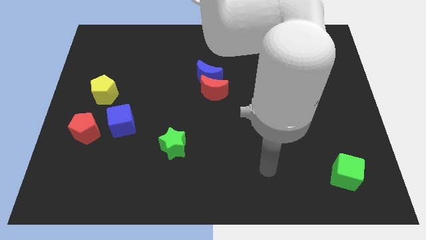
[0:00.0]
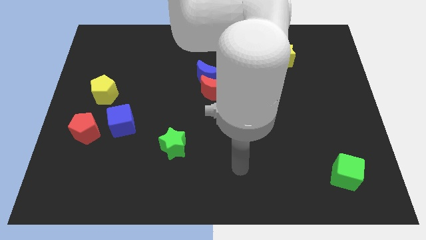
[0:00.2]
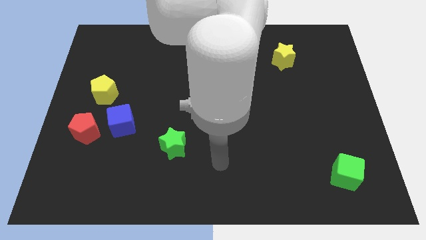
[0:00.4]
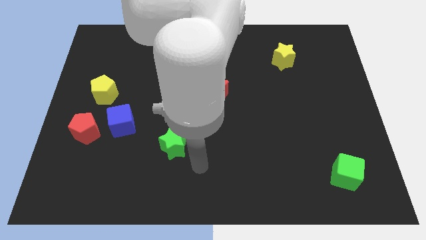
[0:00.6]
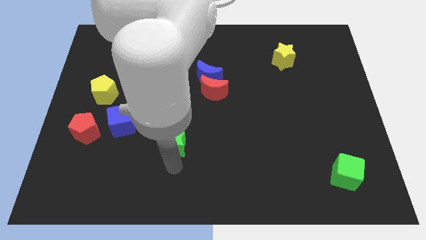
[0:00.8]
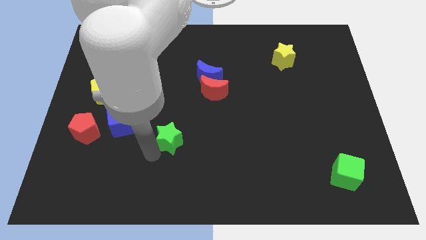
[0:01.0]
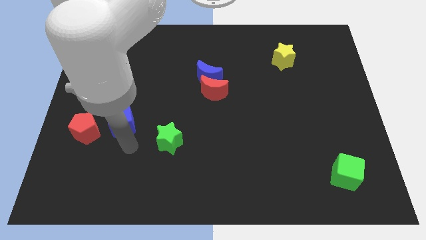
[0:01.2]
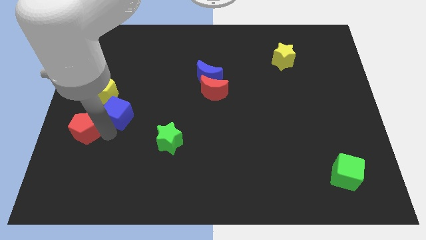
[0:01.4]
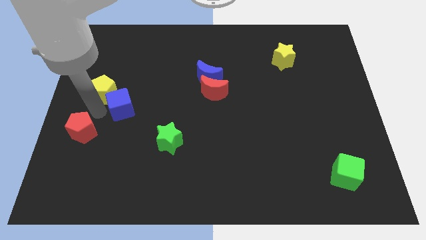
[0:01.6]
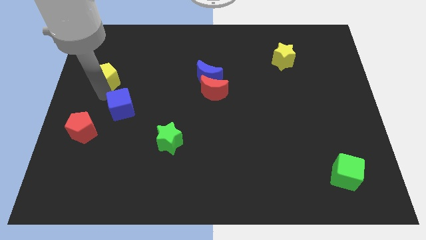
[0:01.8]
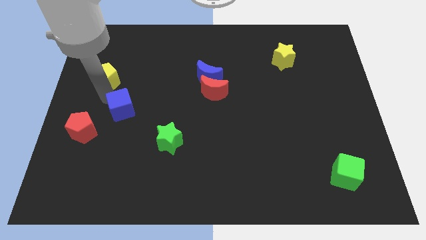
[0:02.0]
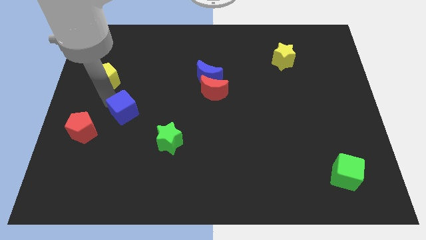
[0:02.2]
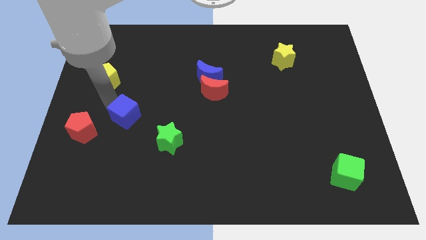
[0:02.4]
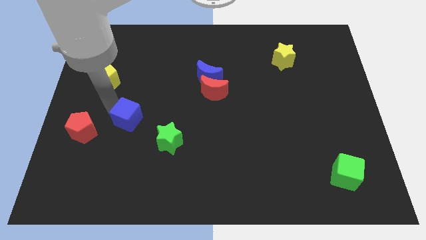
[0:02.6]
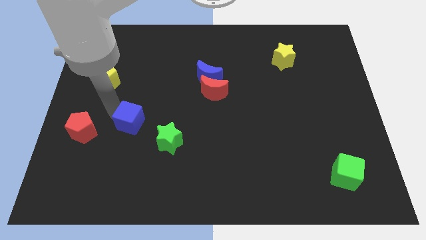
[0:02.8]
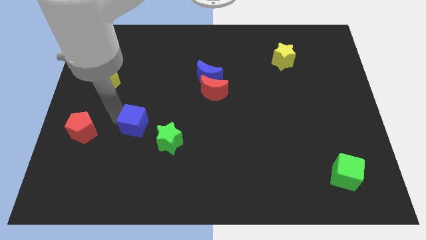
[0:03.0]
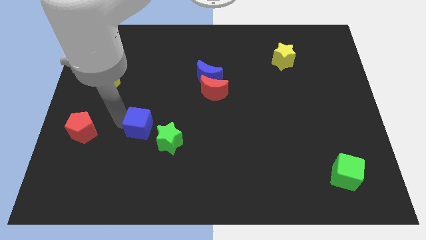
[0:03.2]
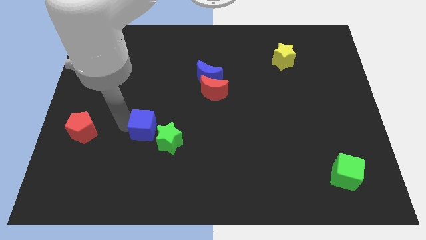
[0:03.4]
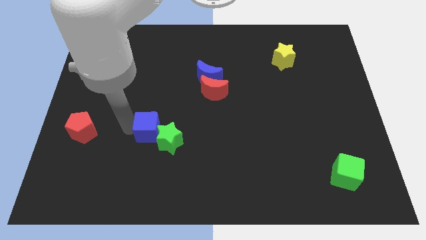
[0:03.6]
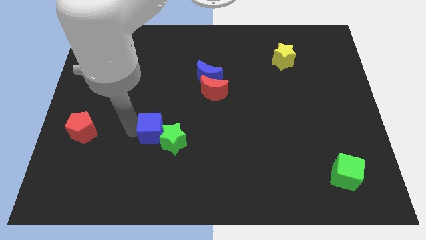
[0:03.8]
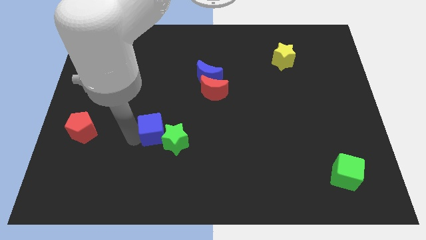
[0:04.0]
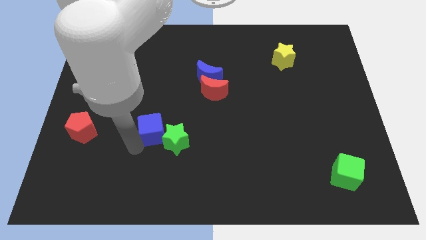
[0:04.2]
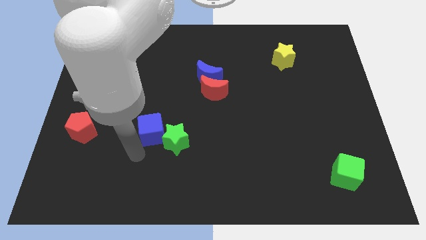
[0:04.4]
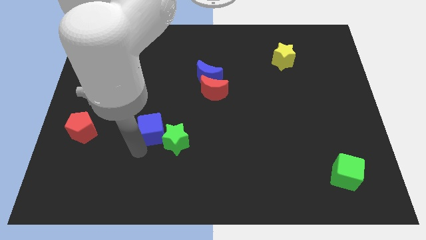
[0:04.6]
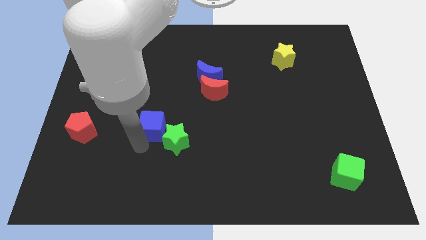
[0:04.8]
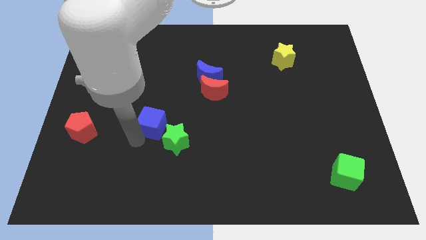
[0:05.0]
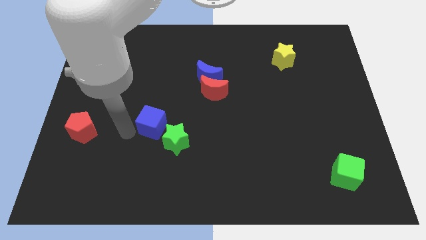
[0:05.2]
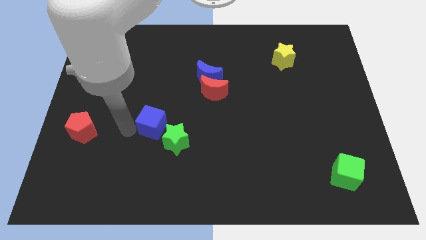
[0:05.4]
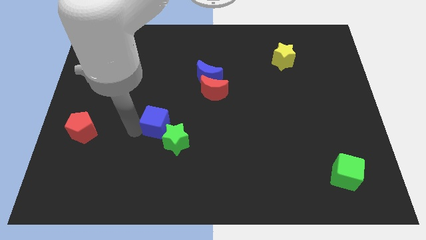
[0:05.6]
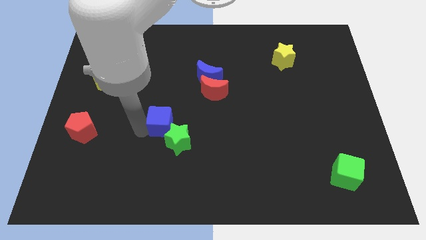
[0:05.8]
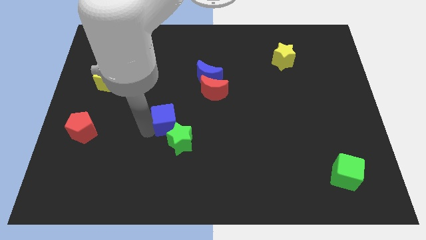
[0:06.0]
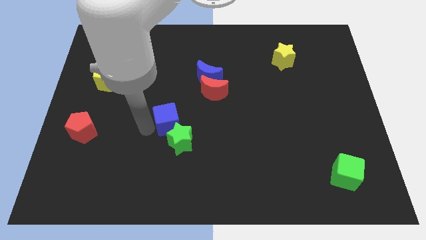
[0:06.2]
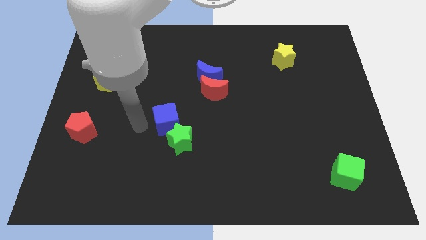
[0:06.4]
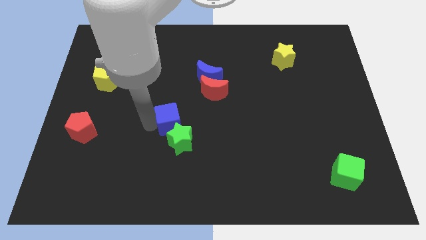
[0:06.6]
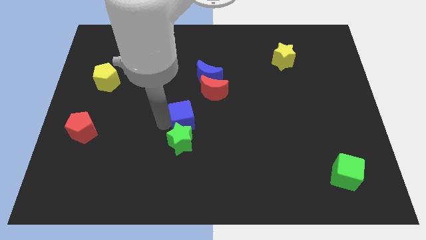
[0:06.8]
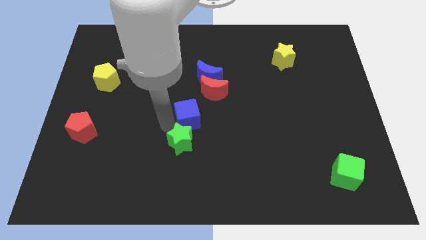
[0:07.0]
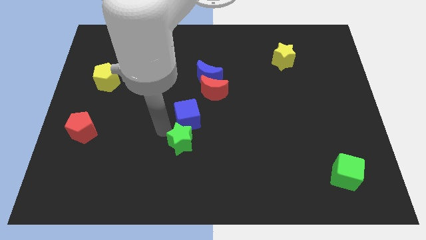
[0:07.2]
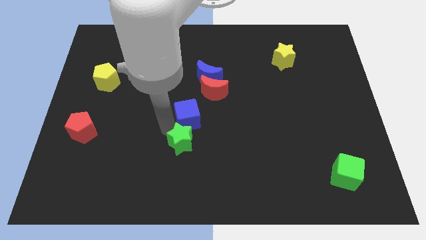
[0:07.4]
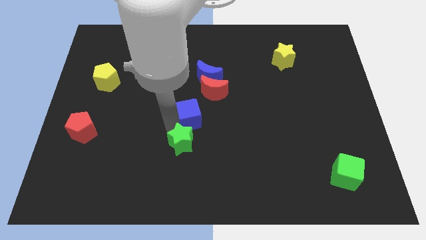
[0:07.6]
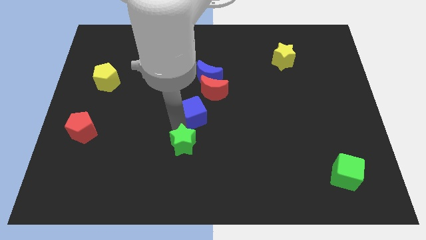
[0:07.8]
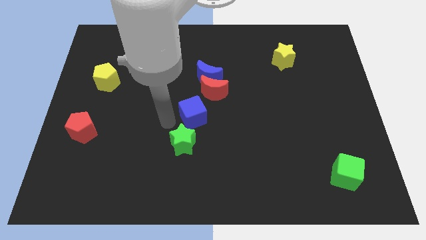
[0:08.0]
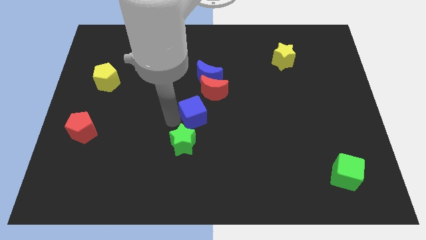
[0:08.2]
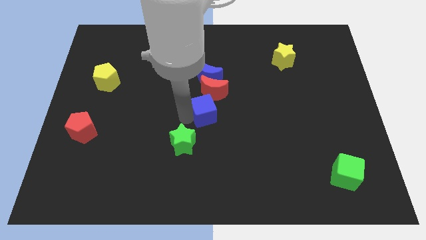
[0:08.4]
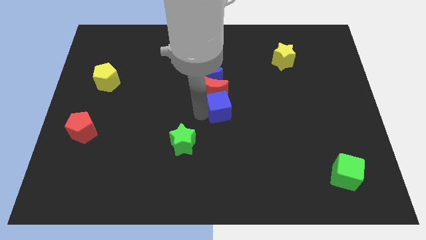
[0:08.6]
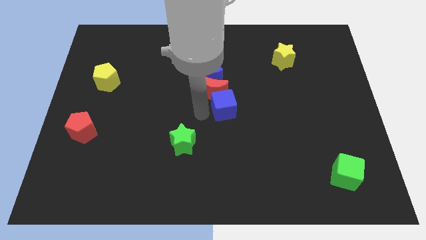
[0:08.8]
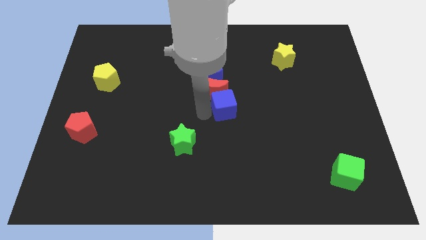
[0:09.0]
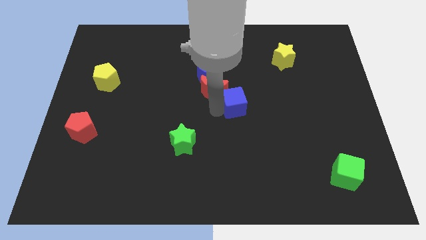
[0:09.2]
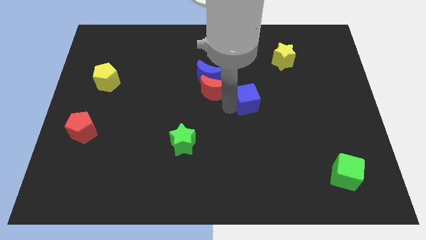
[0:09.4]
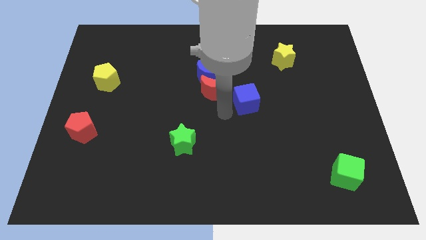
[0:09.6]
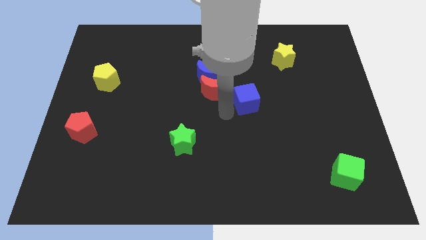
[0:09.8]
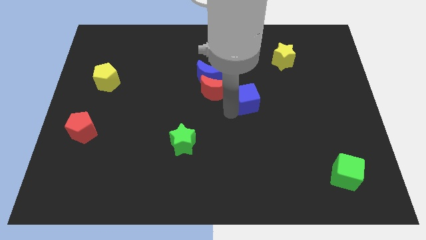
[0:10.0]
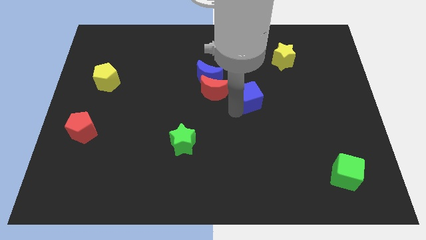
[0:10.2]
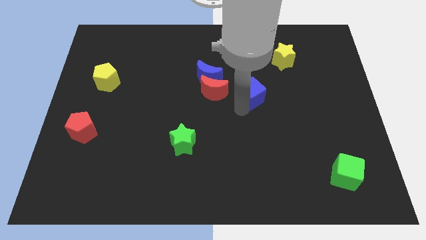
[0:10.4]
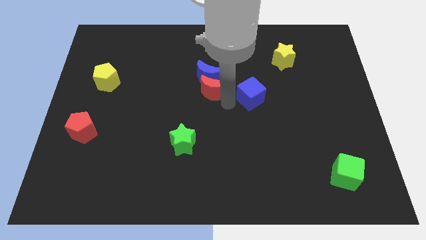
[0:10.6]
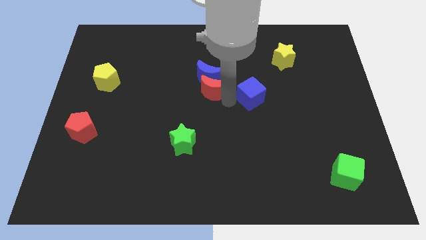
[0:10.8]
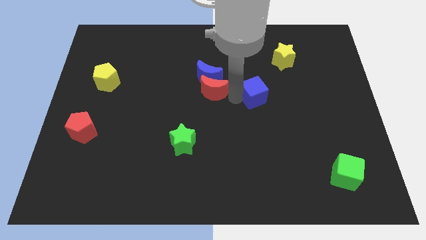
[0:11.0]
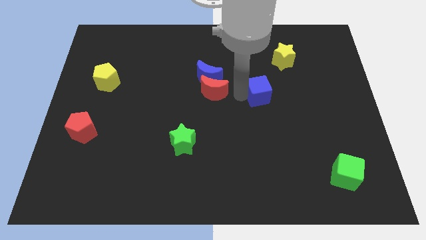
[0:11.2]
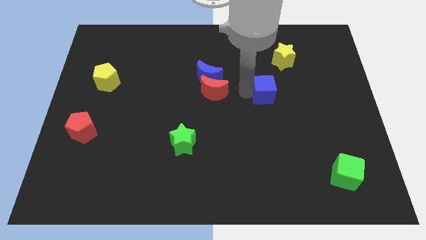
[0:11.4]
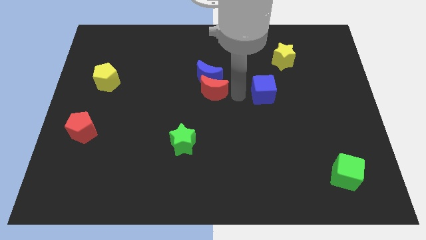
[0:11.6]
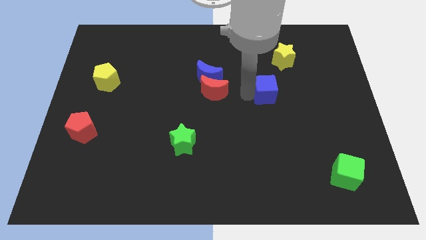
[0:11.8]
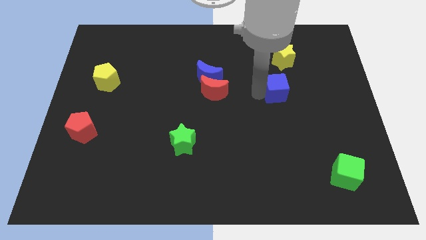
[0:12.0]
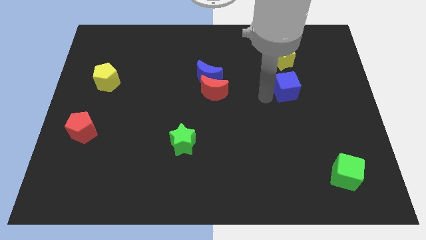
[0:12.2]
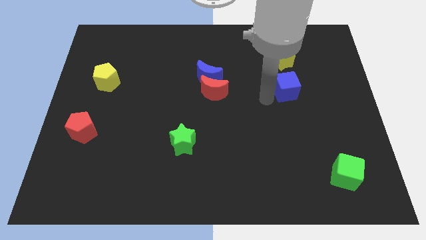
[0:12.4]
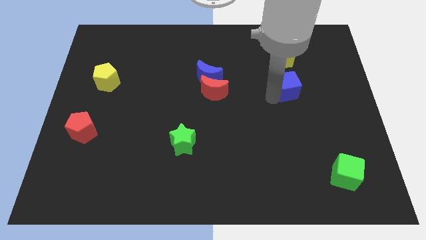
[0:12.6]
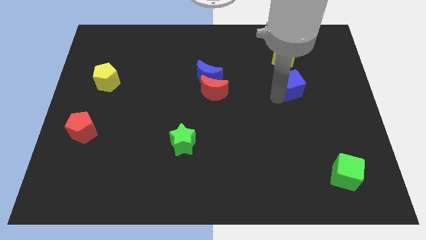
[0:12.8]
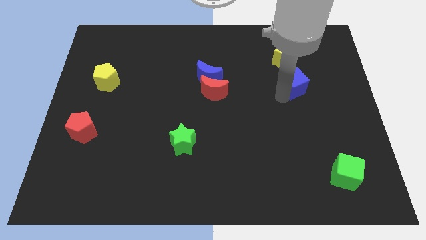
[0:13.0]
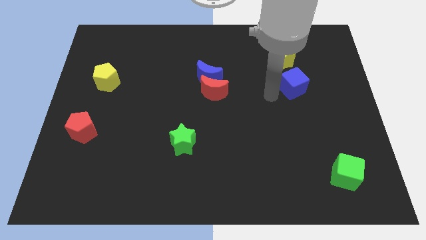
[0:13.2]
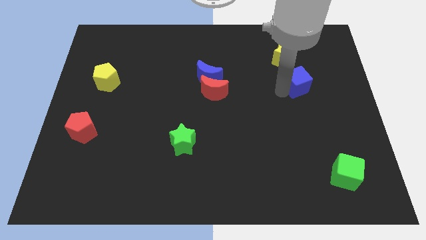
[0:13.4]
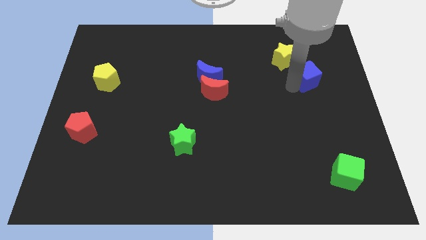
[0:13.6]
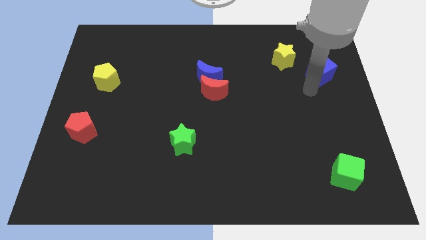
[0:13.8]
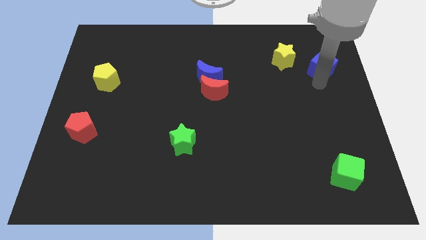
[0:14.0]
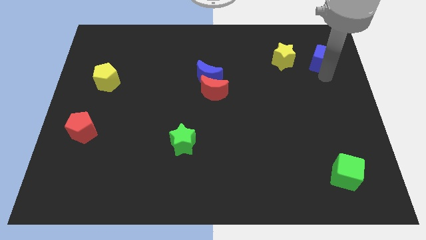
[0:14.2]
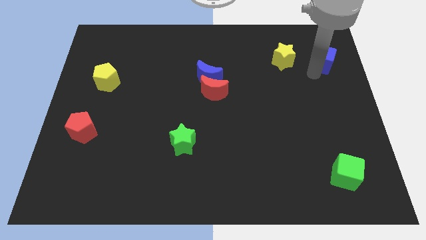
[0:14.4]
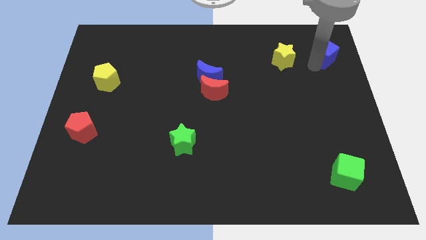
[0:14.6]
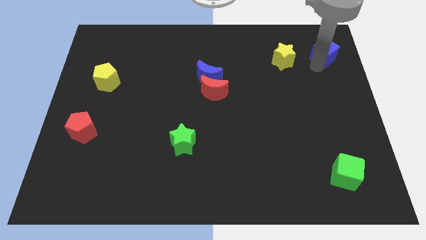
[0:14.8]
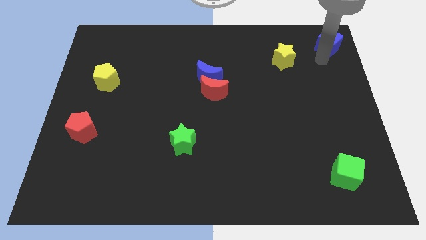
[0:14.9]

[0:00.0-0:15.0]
put the blue cube to the top right corner
